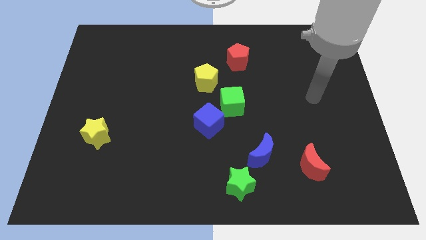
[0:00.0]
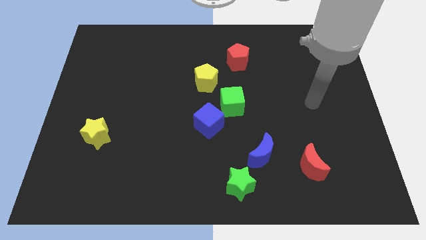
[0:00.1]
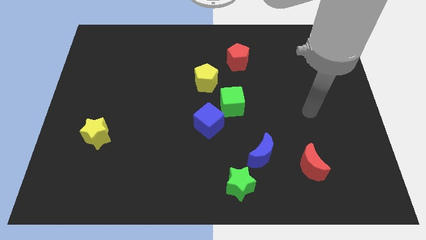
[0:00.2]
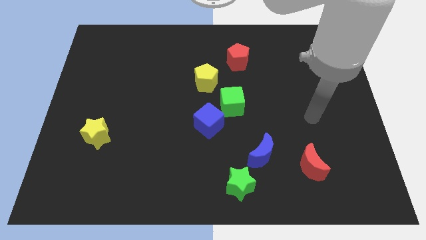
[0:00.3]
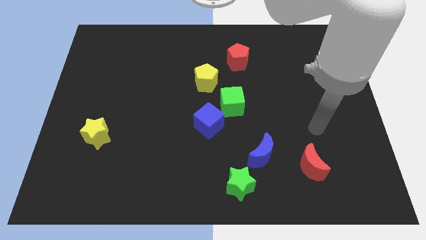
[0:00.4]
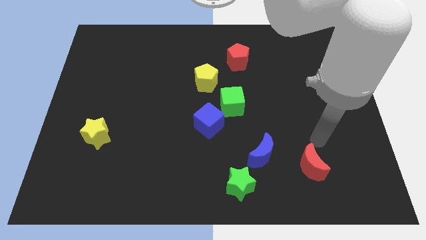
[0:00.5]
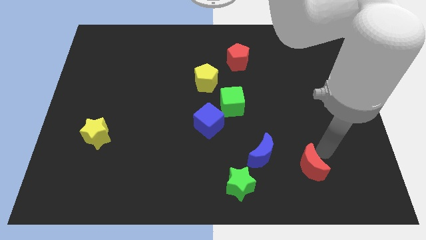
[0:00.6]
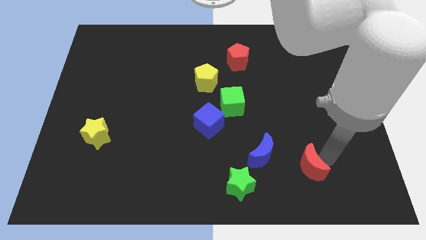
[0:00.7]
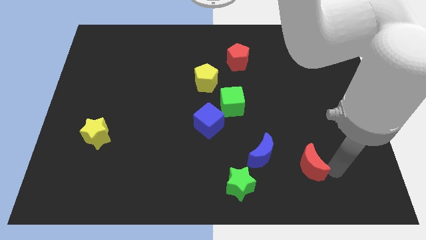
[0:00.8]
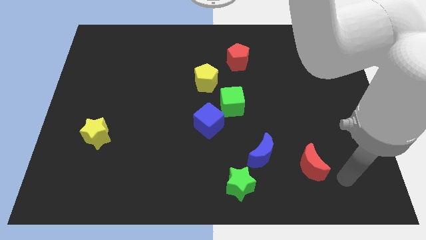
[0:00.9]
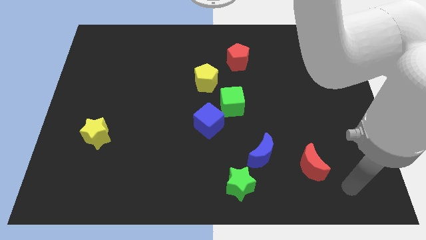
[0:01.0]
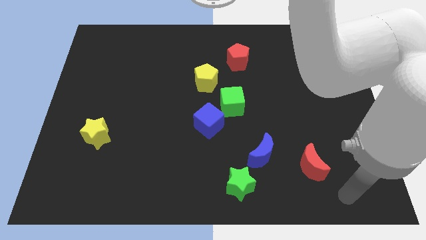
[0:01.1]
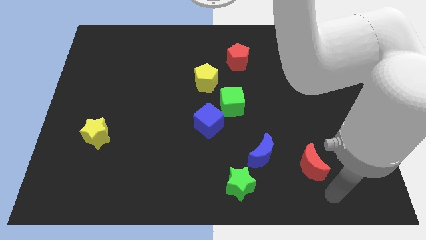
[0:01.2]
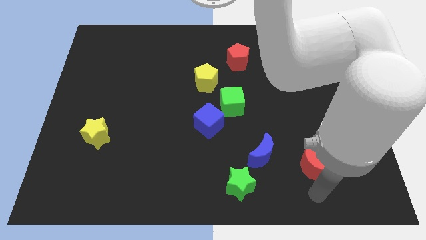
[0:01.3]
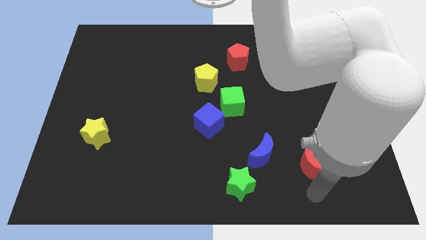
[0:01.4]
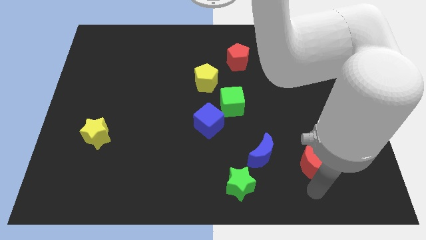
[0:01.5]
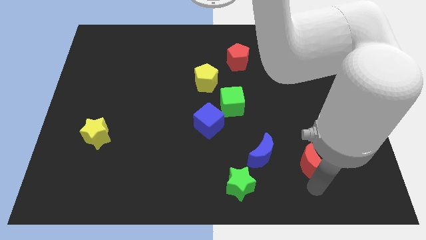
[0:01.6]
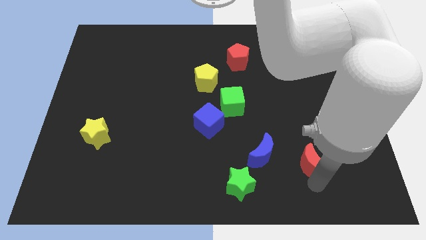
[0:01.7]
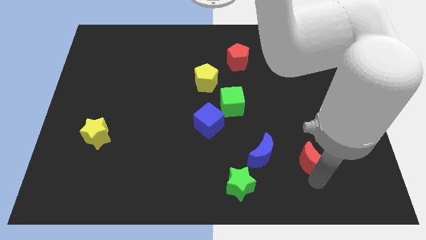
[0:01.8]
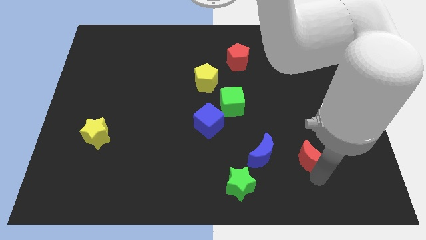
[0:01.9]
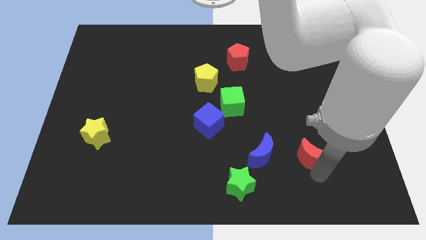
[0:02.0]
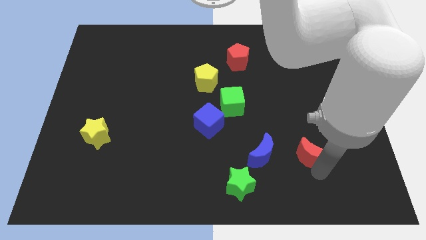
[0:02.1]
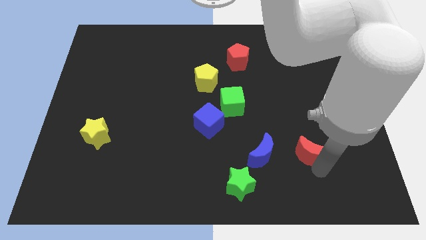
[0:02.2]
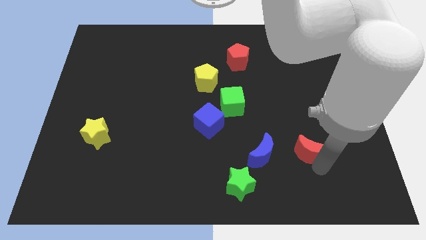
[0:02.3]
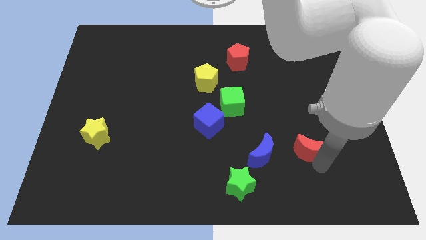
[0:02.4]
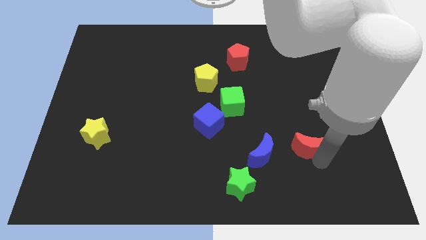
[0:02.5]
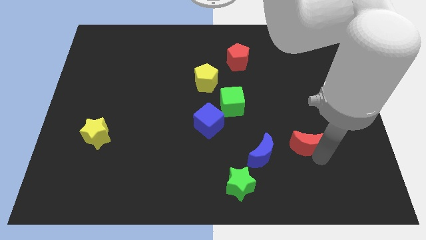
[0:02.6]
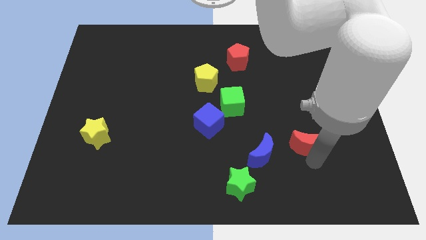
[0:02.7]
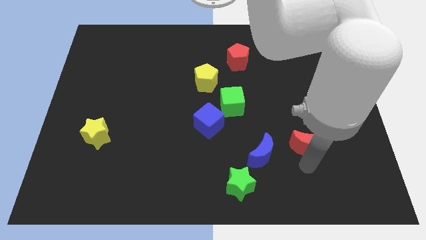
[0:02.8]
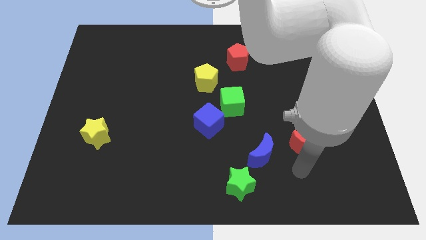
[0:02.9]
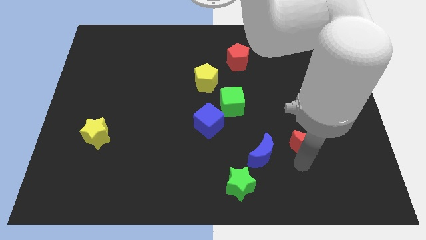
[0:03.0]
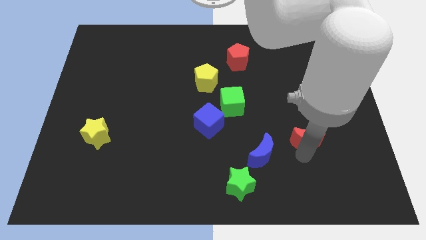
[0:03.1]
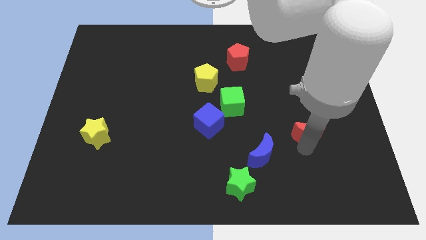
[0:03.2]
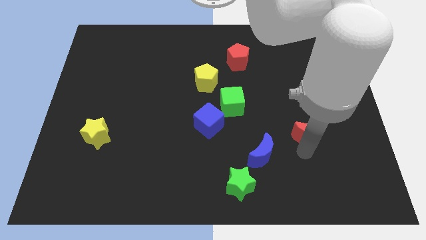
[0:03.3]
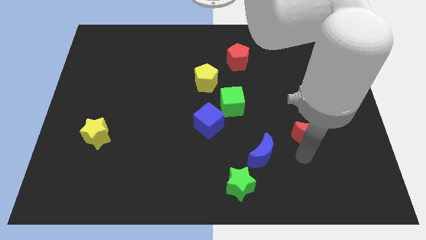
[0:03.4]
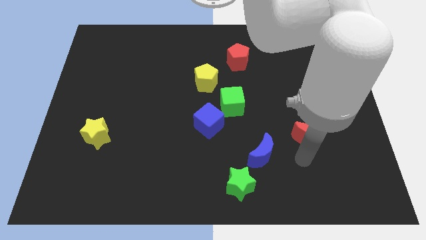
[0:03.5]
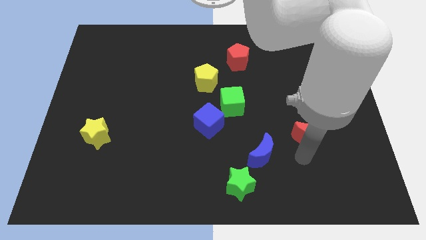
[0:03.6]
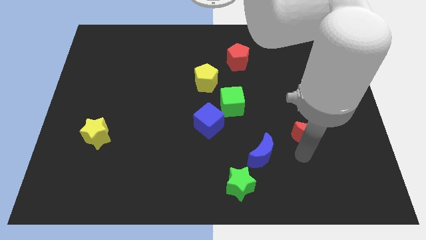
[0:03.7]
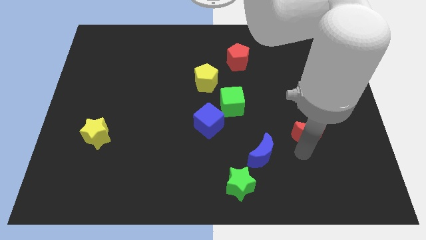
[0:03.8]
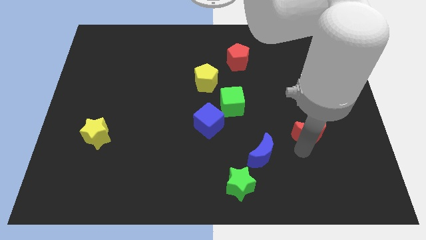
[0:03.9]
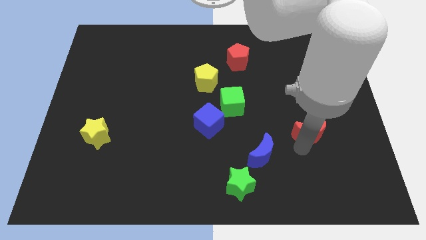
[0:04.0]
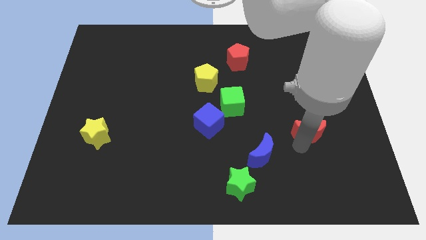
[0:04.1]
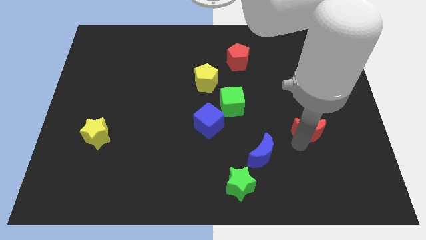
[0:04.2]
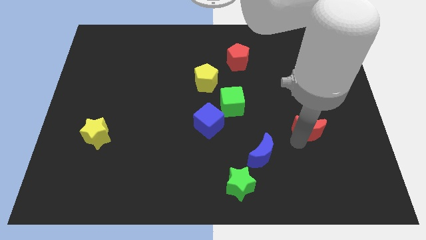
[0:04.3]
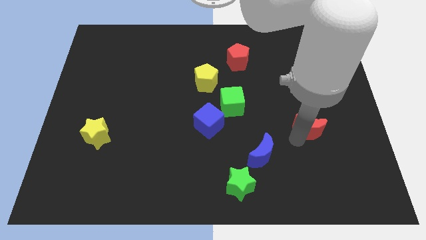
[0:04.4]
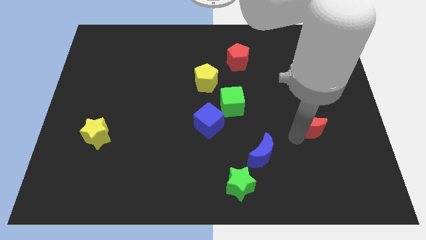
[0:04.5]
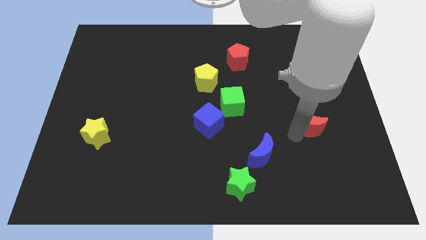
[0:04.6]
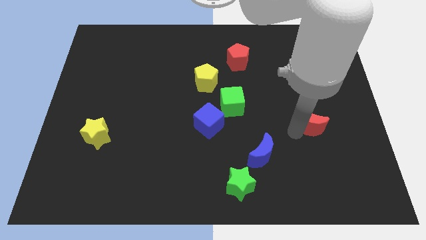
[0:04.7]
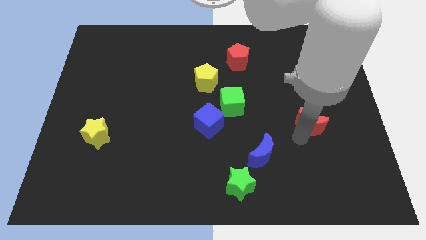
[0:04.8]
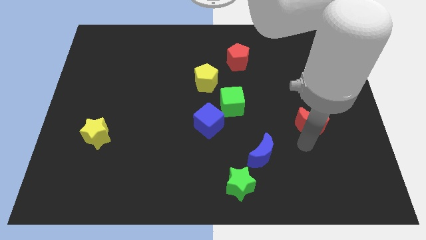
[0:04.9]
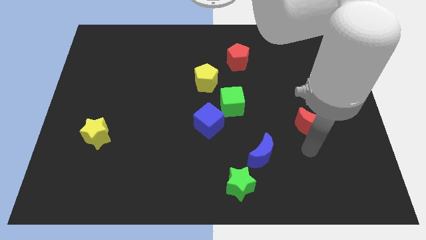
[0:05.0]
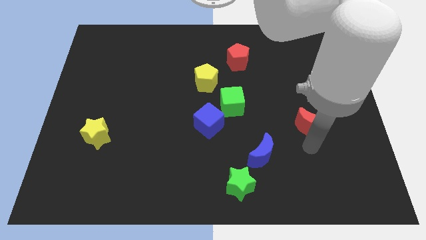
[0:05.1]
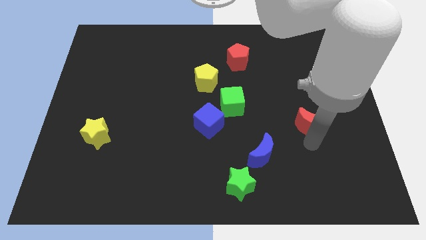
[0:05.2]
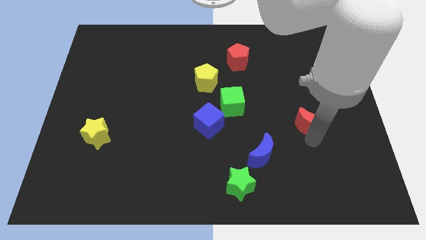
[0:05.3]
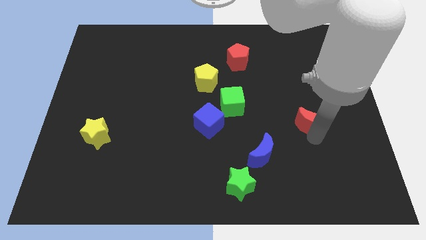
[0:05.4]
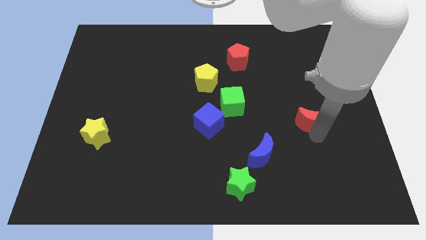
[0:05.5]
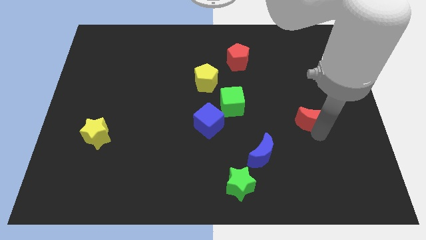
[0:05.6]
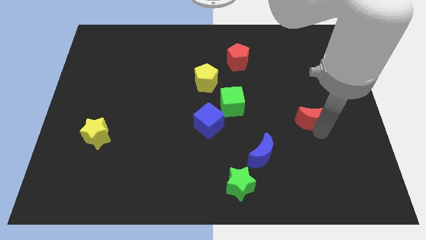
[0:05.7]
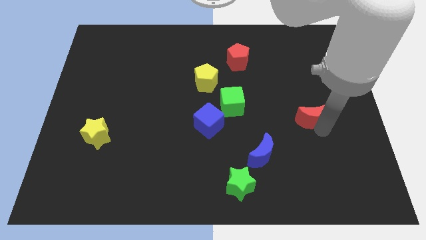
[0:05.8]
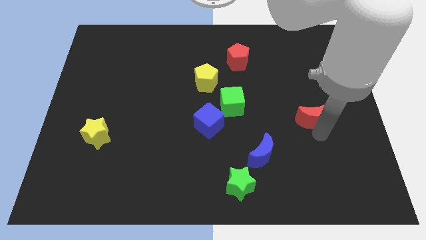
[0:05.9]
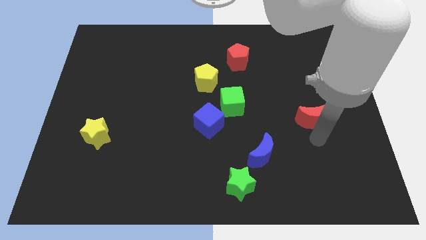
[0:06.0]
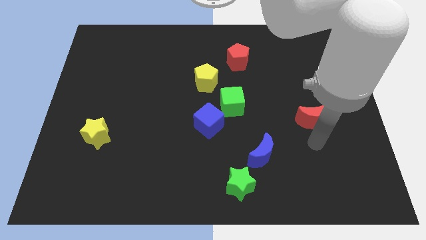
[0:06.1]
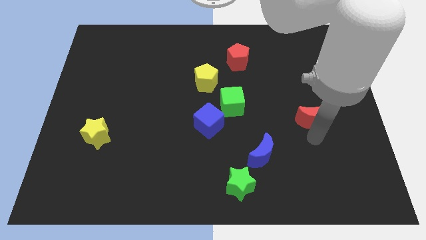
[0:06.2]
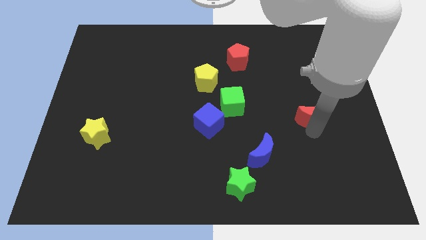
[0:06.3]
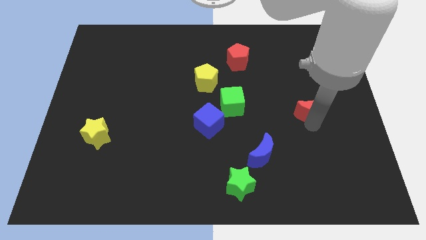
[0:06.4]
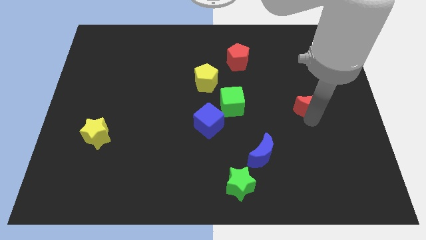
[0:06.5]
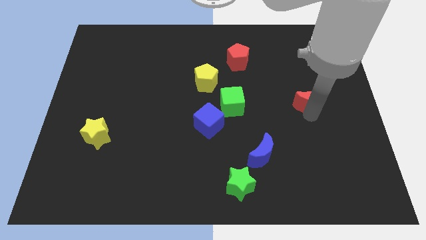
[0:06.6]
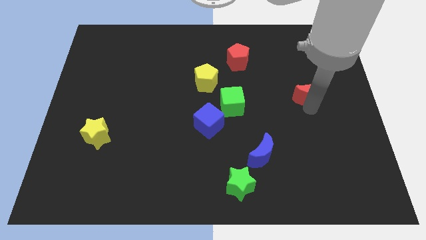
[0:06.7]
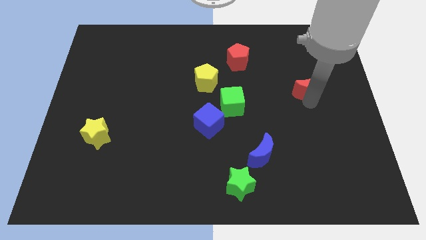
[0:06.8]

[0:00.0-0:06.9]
move the red moon up

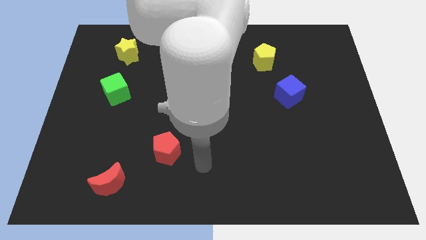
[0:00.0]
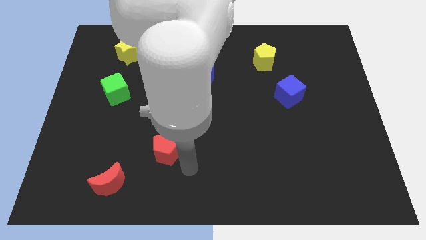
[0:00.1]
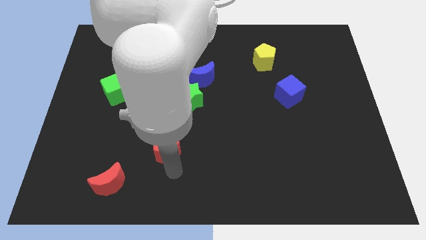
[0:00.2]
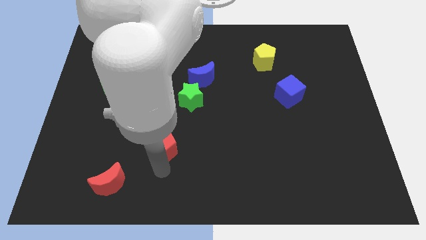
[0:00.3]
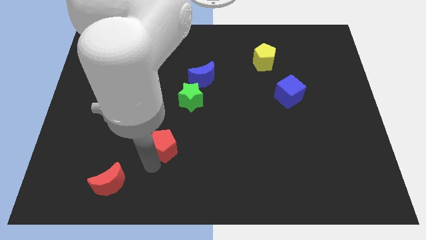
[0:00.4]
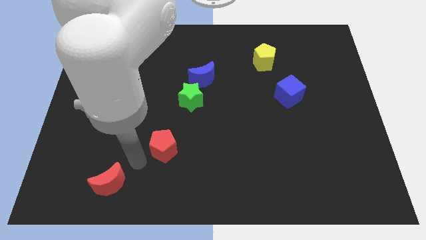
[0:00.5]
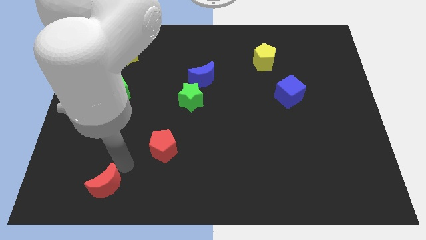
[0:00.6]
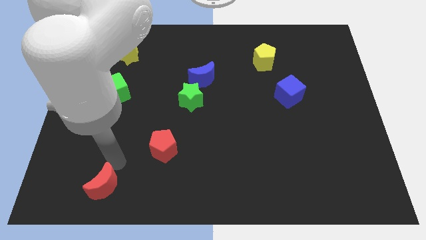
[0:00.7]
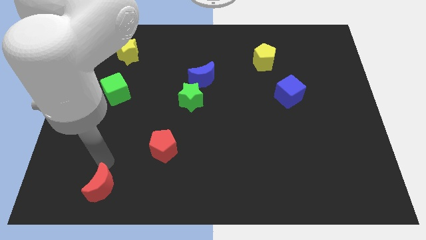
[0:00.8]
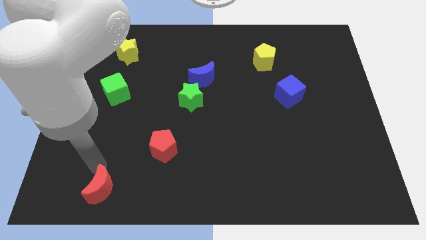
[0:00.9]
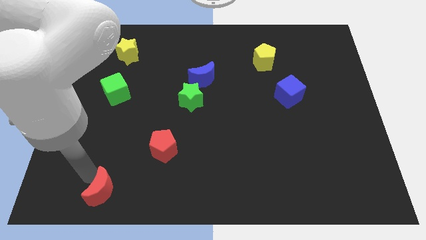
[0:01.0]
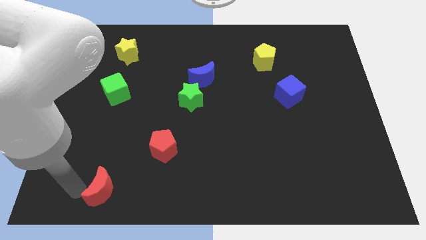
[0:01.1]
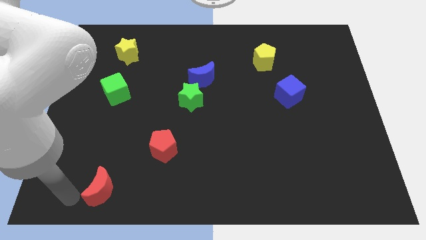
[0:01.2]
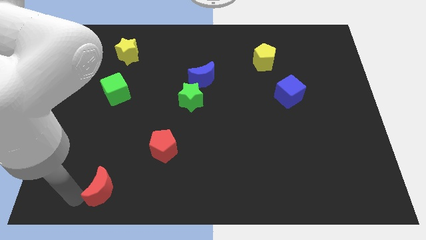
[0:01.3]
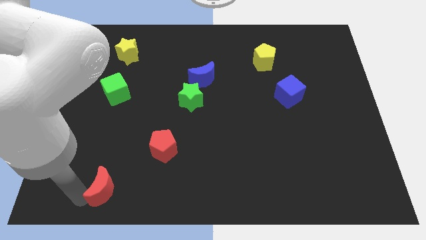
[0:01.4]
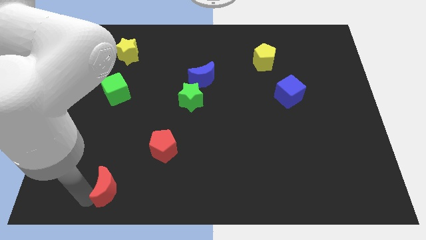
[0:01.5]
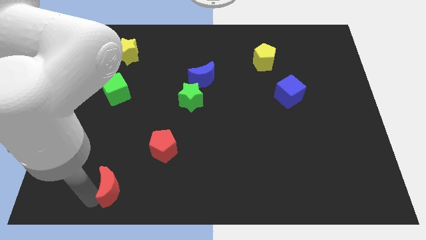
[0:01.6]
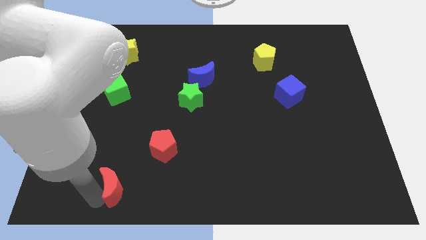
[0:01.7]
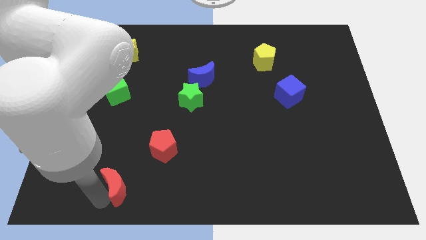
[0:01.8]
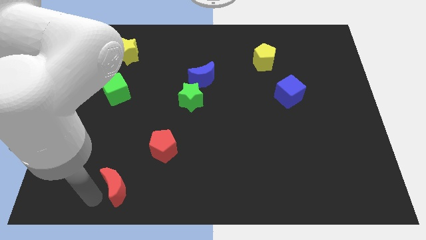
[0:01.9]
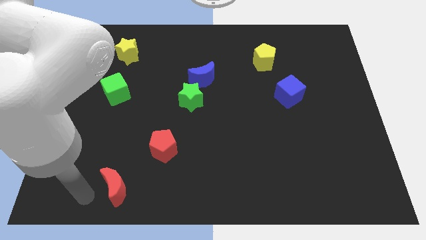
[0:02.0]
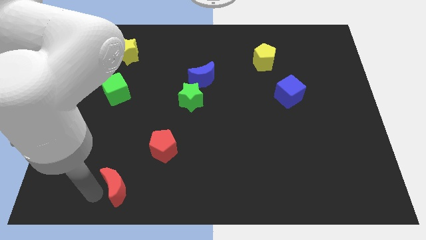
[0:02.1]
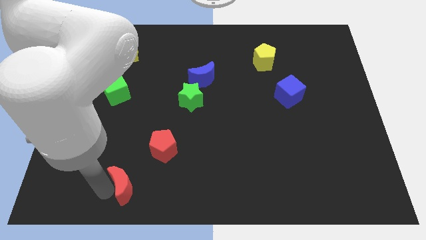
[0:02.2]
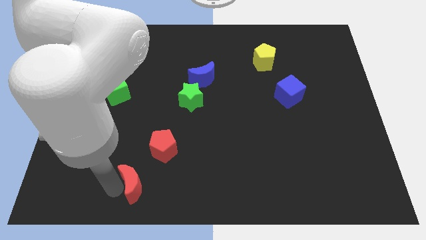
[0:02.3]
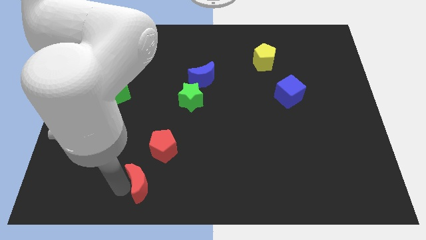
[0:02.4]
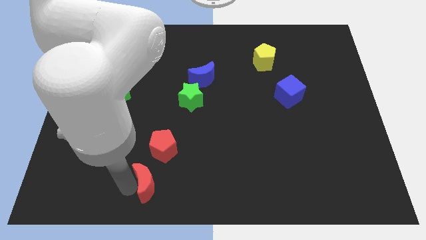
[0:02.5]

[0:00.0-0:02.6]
slightly slide the red moon right
